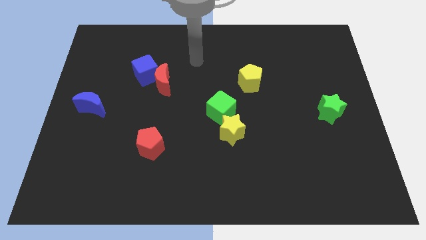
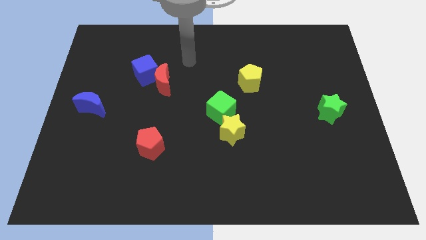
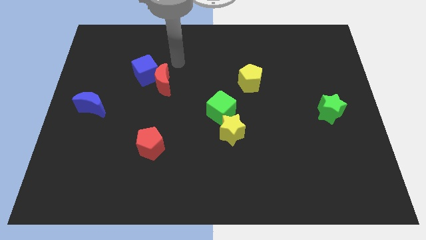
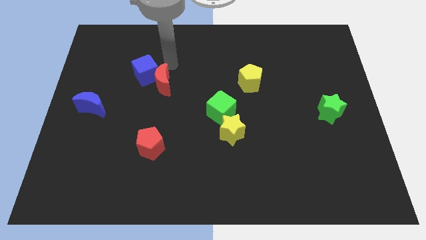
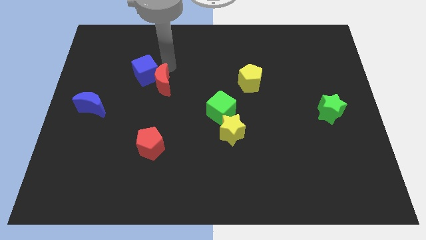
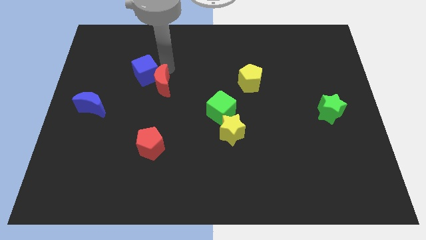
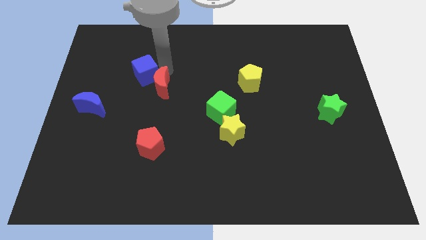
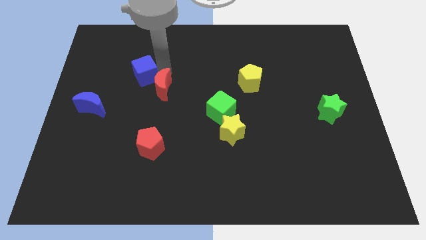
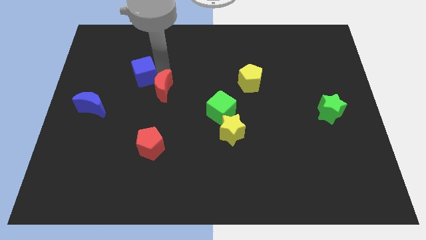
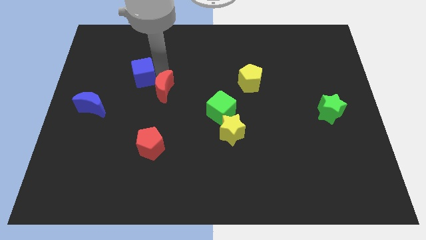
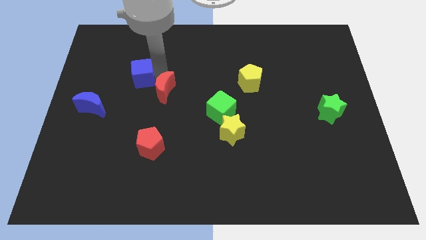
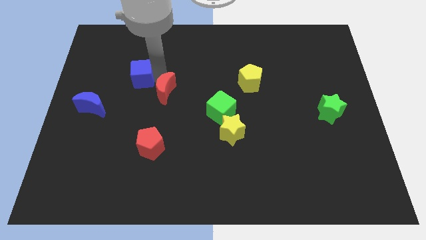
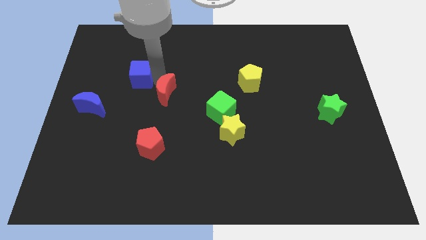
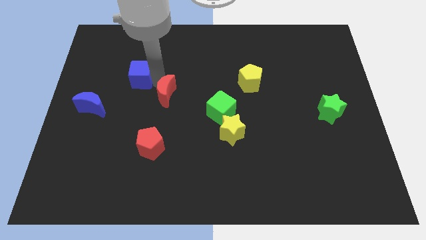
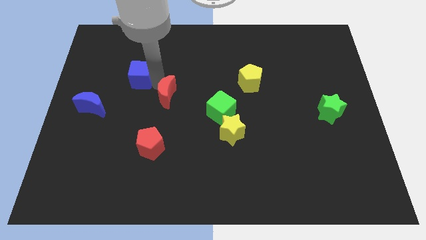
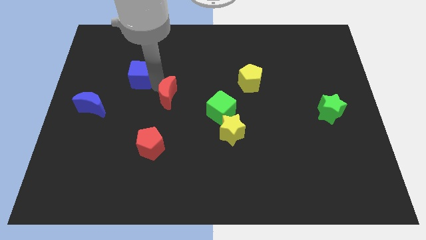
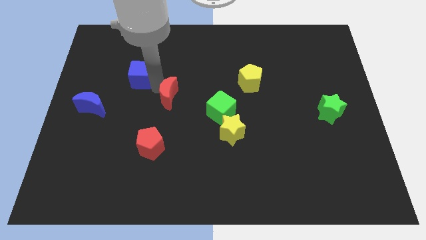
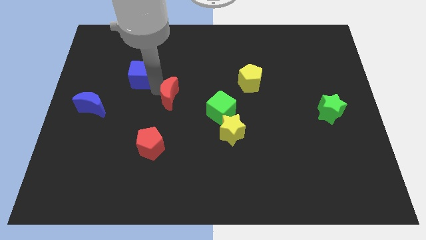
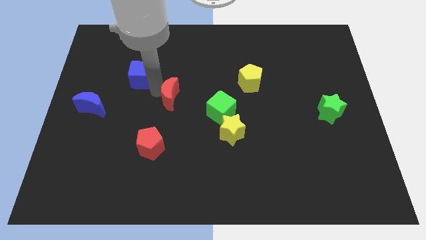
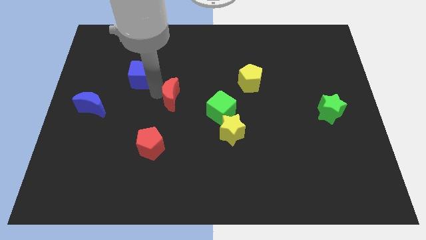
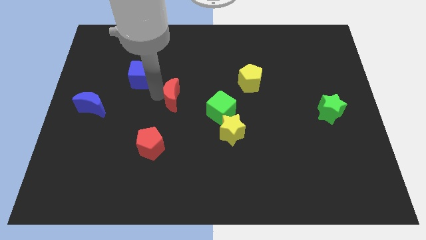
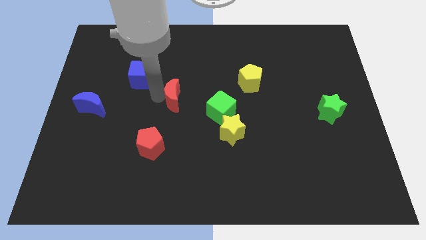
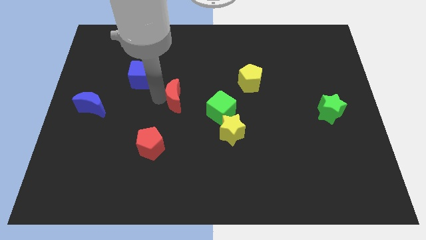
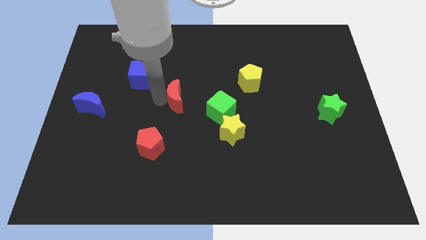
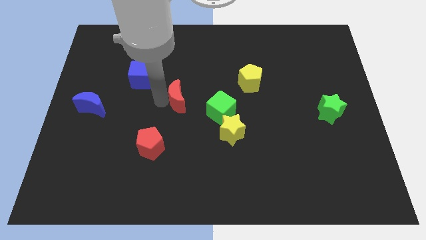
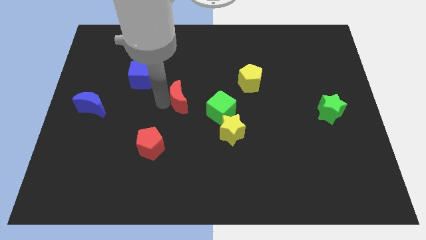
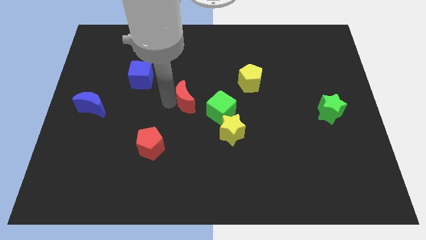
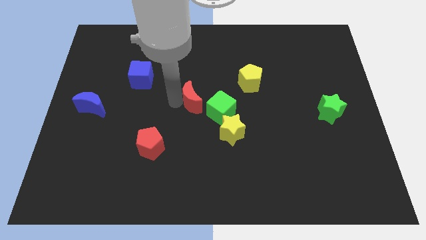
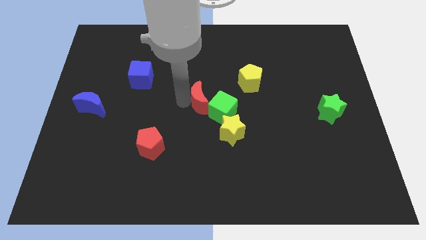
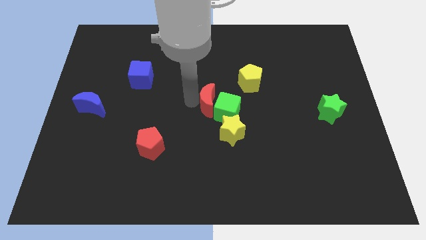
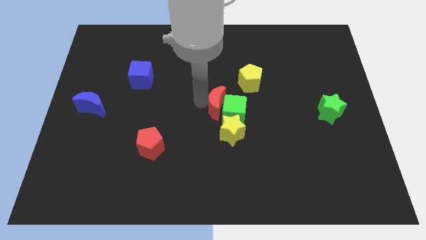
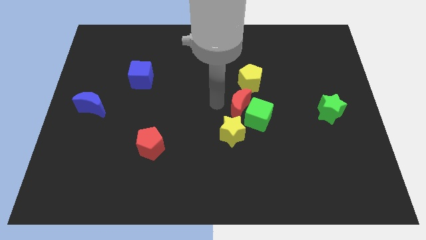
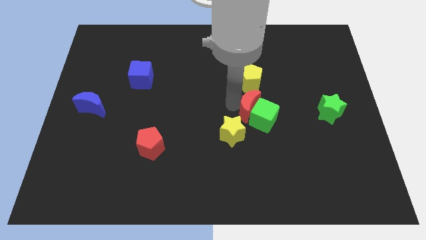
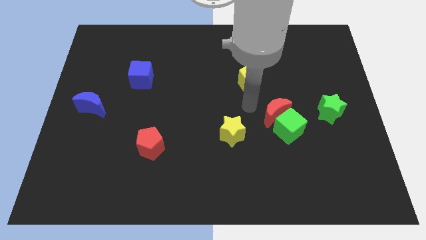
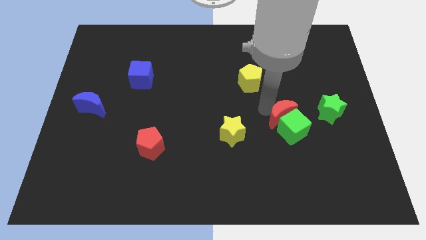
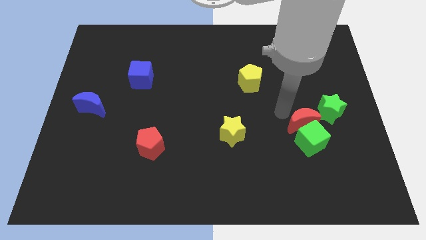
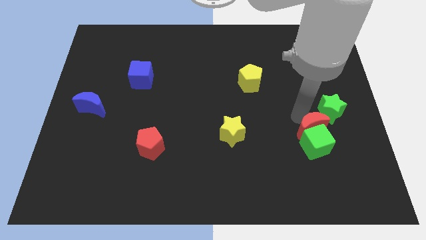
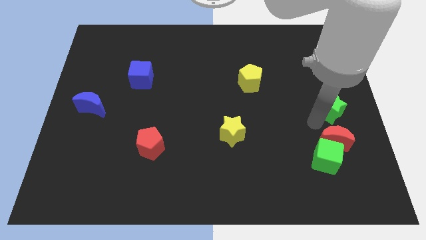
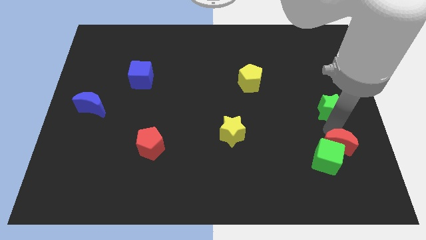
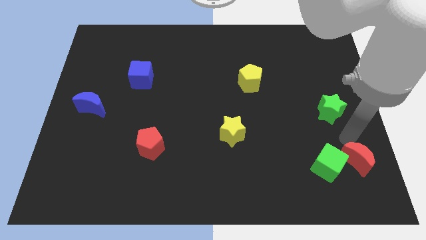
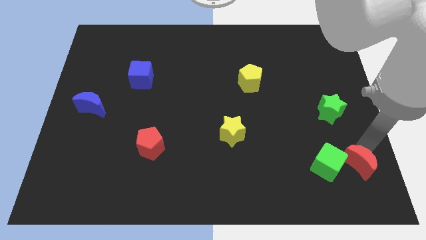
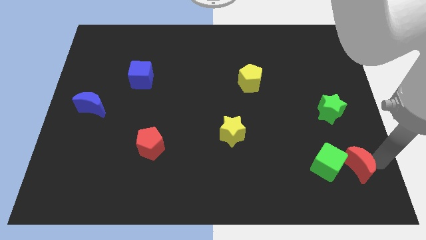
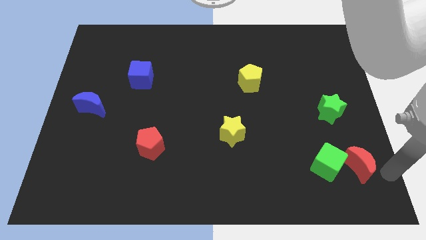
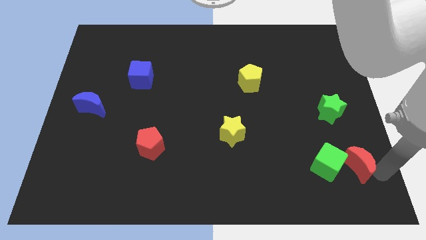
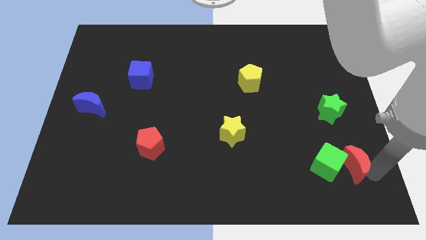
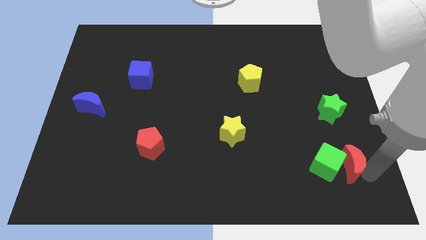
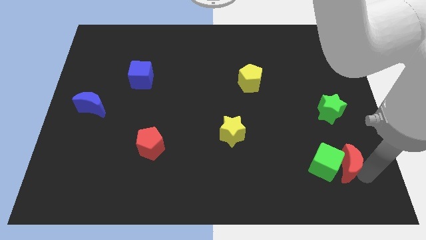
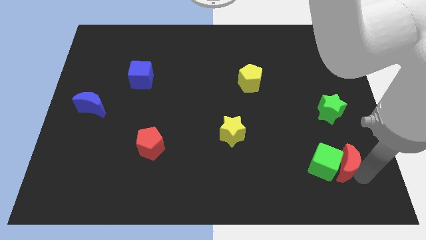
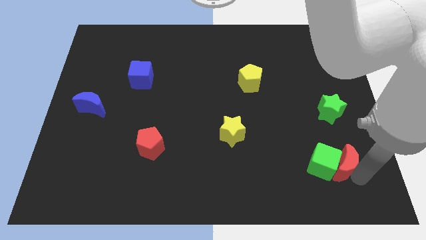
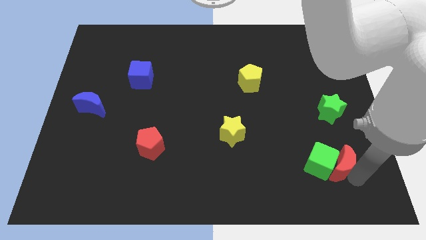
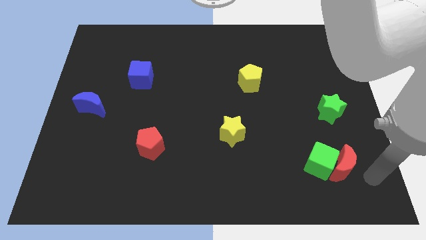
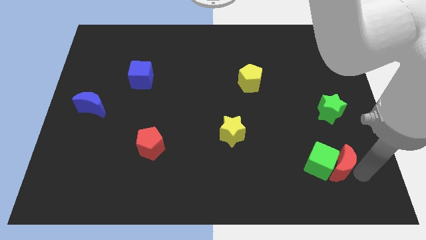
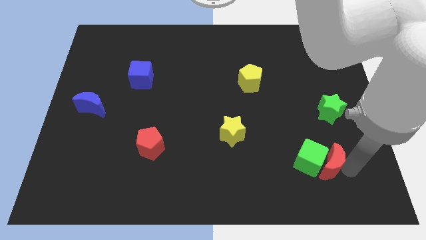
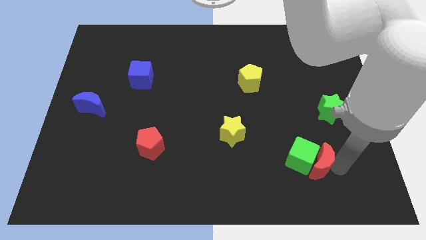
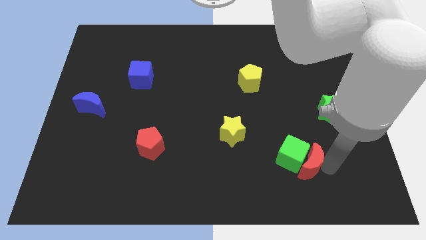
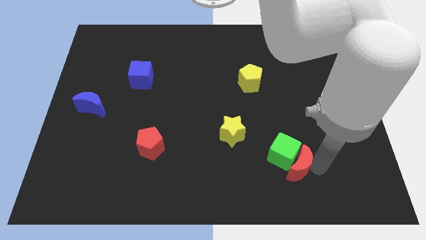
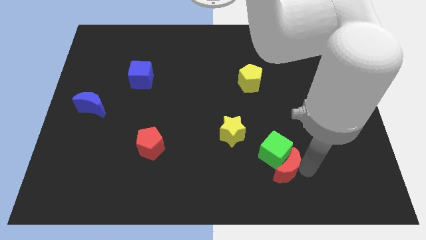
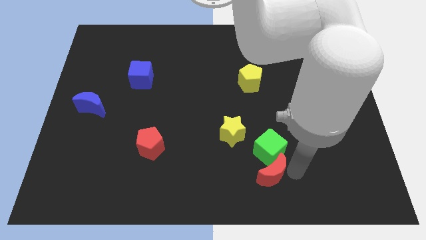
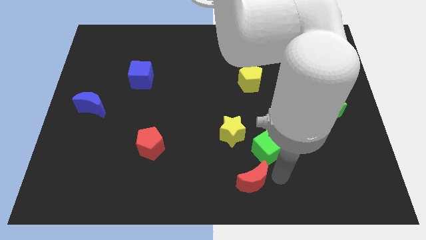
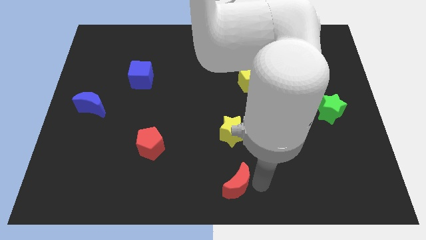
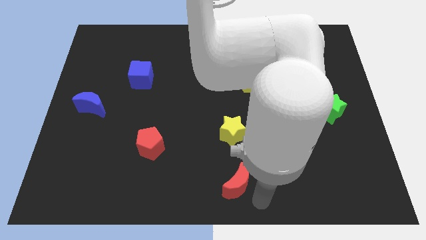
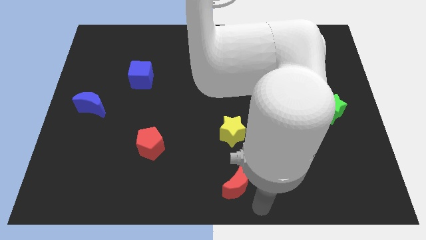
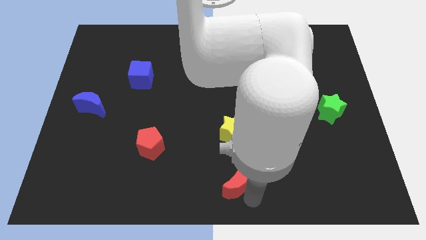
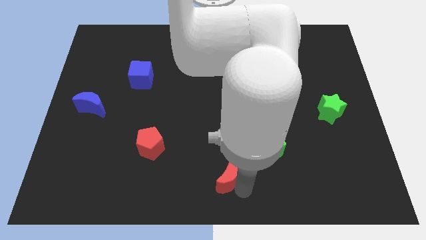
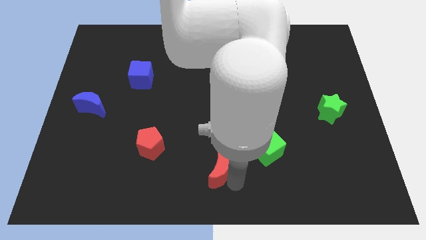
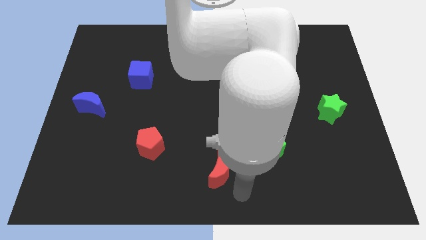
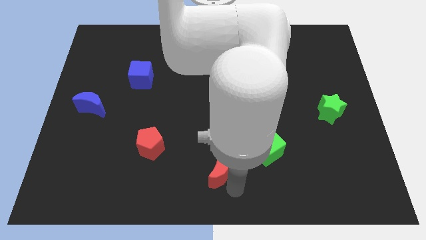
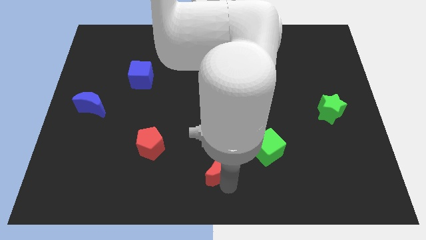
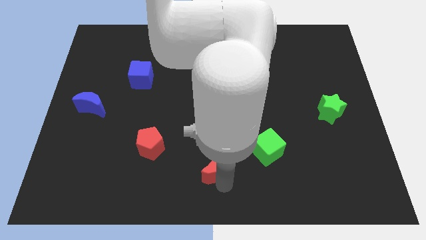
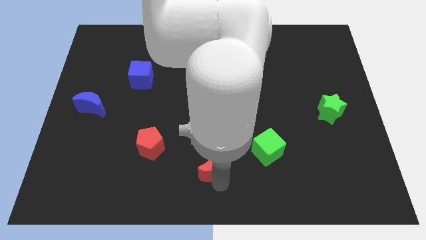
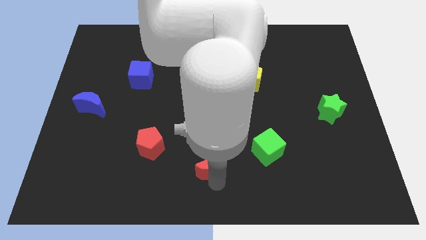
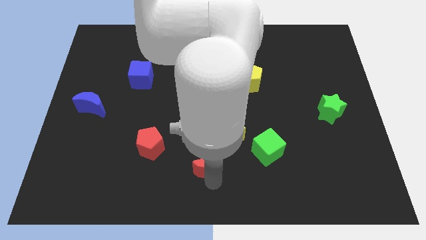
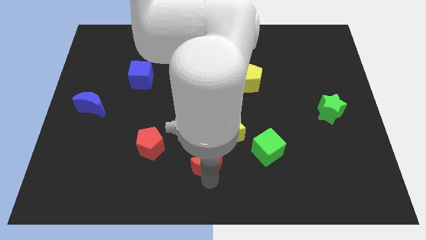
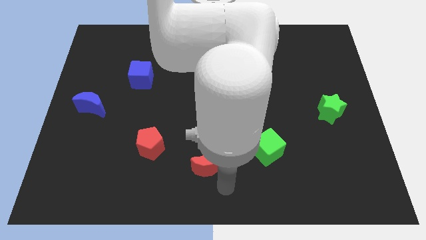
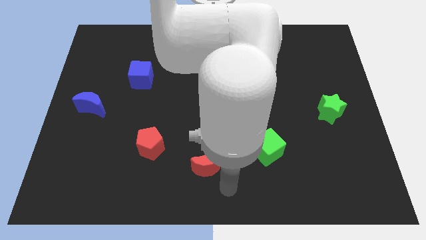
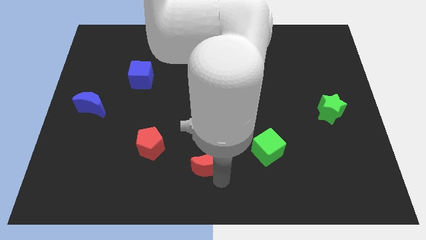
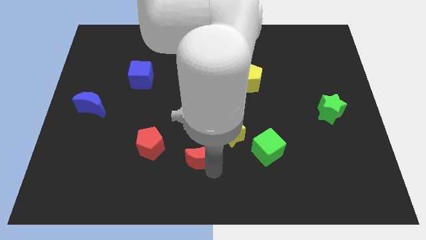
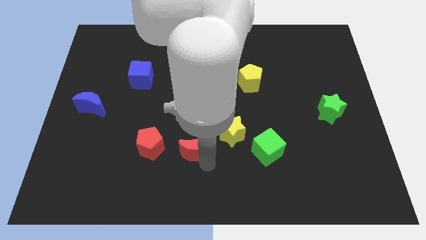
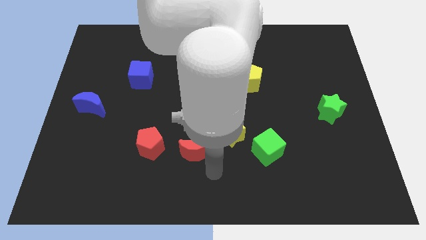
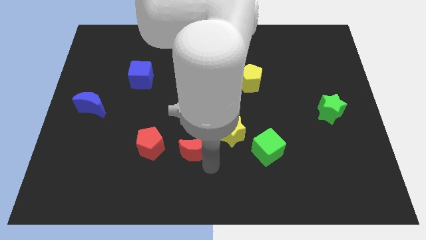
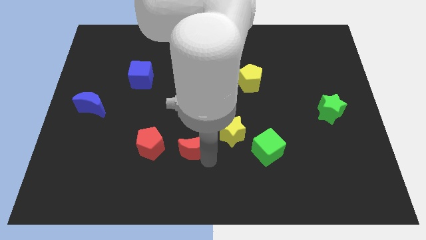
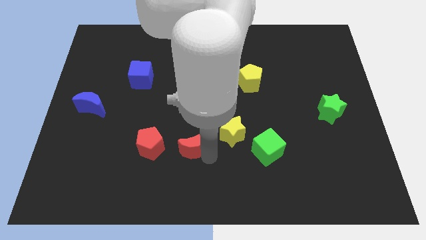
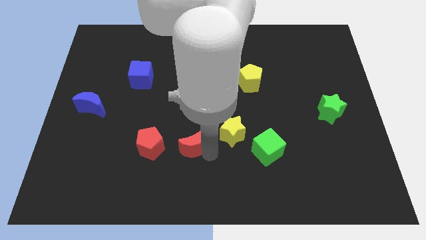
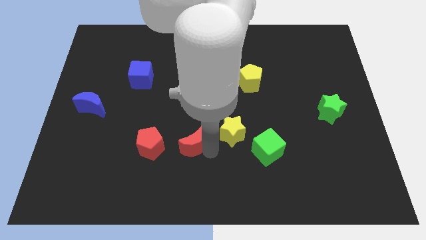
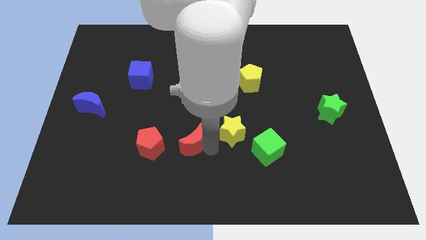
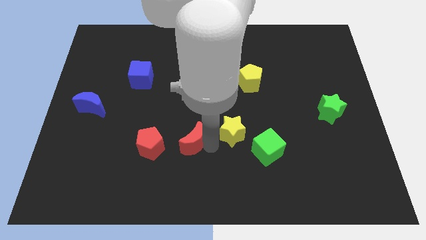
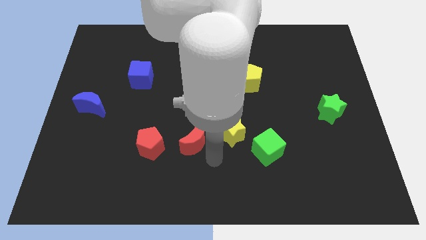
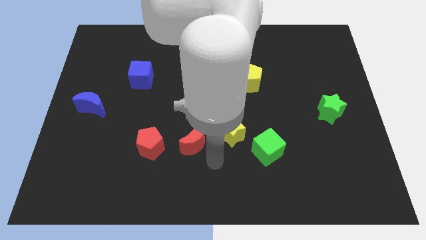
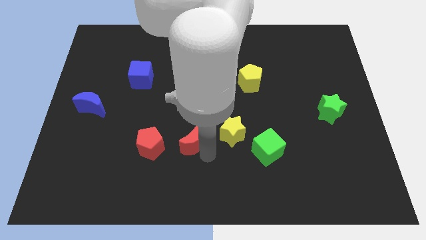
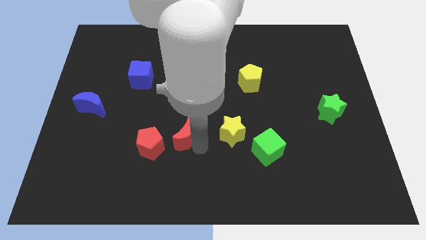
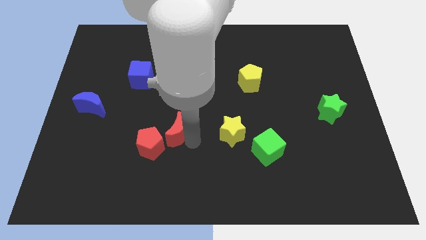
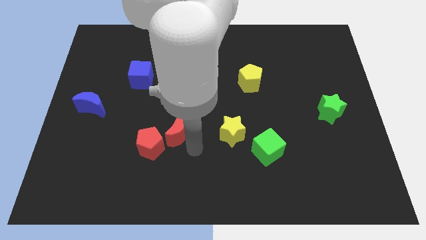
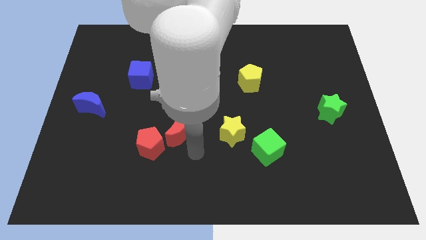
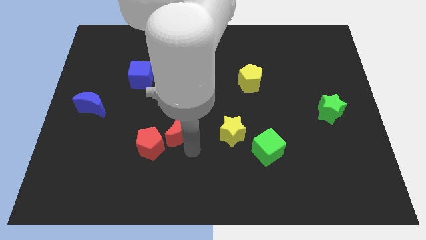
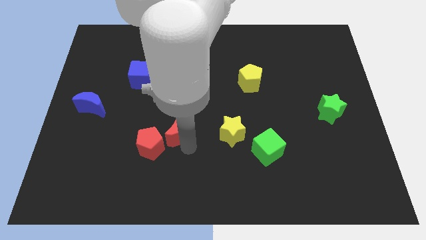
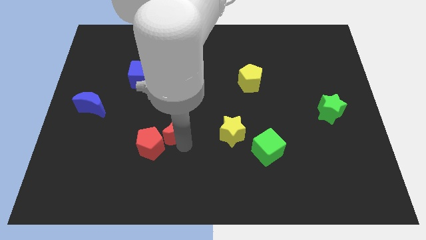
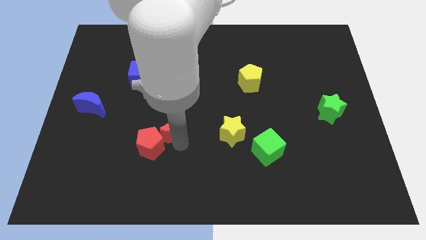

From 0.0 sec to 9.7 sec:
slide the red moon to the red pentagon
